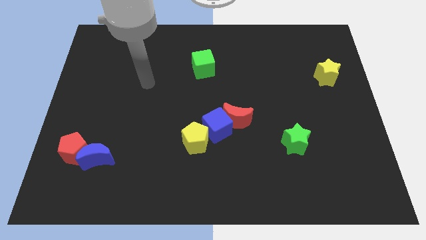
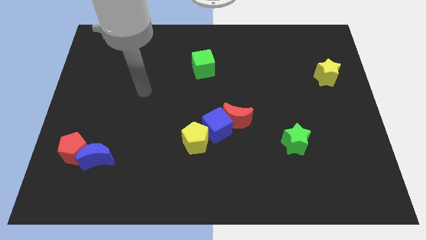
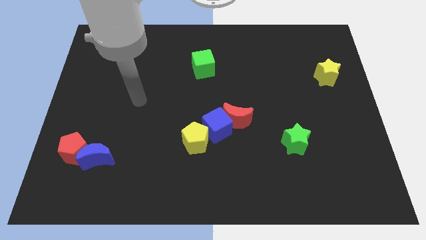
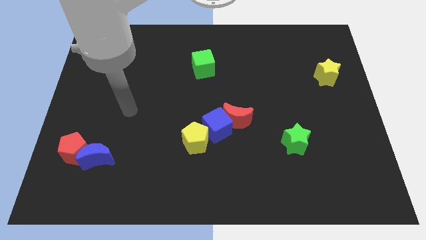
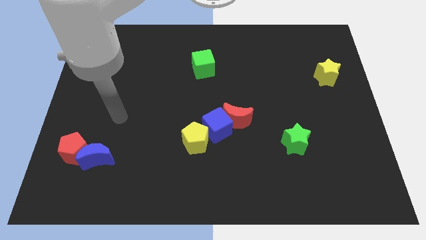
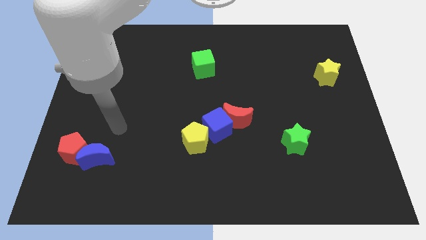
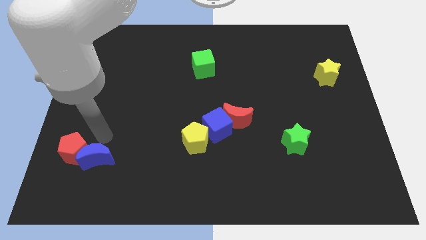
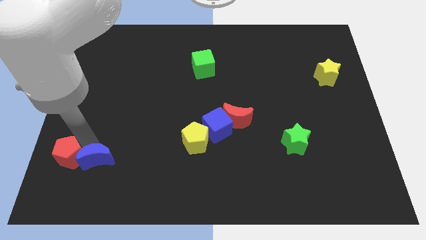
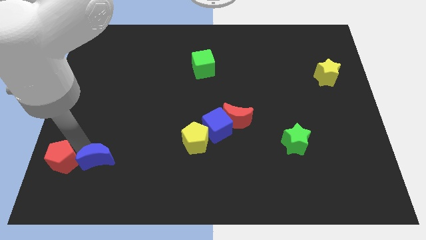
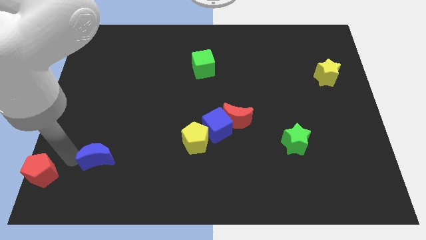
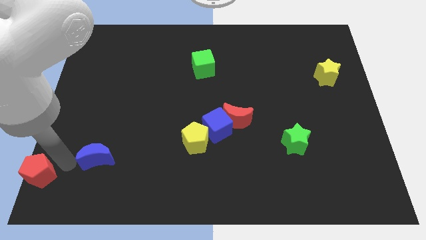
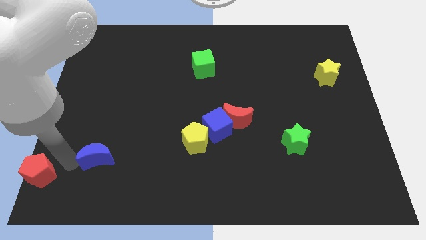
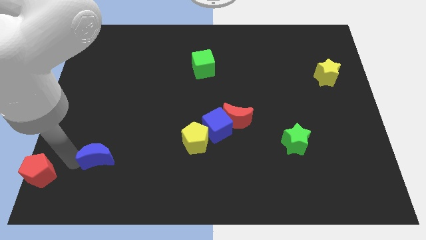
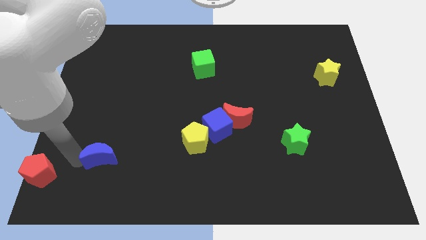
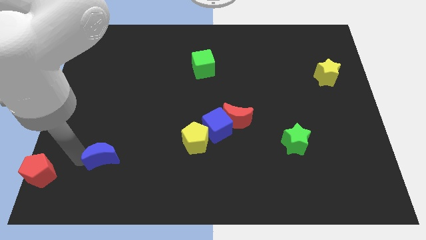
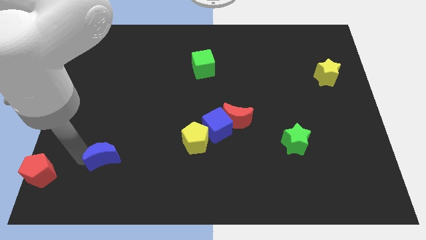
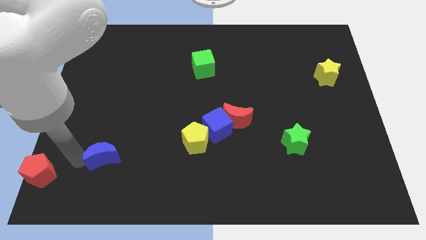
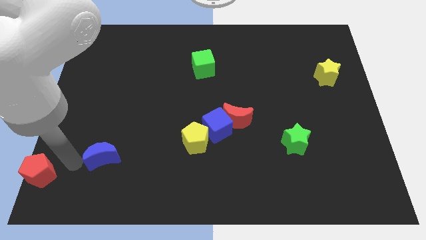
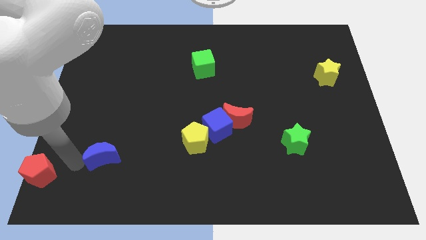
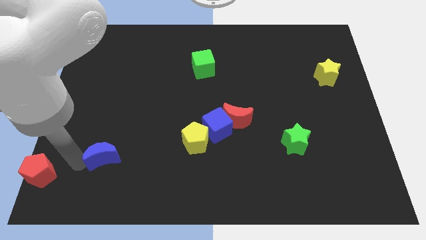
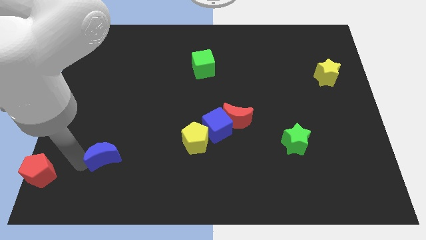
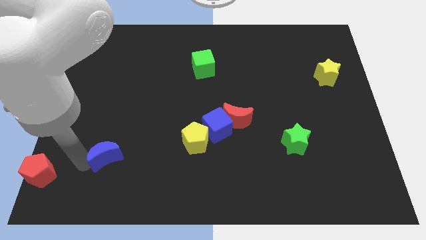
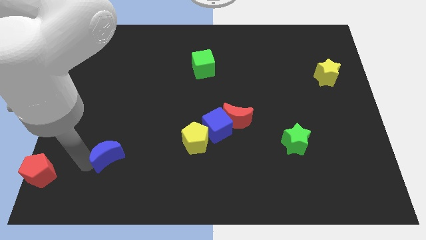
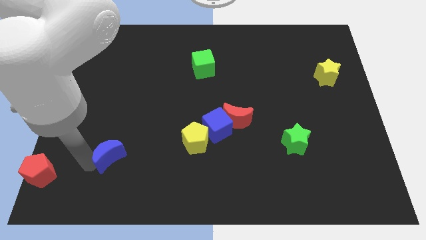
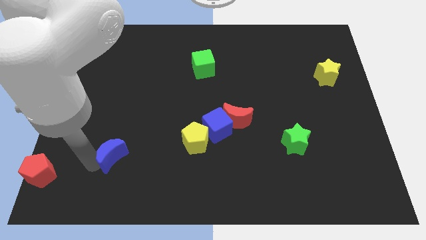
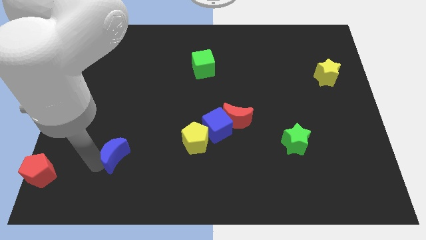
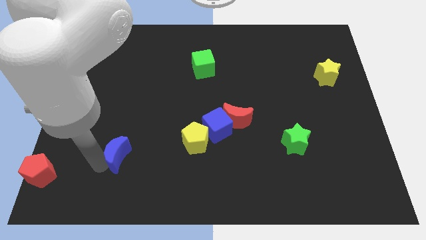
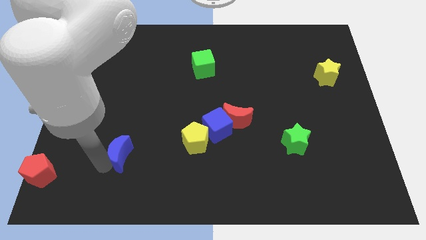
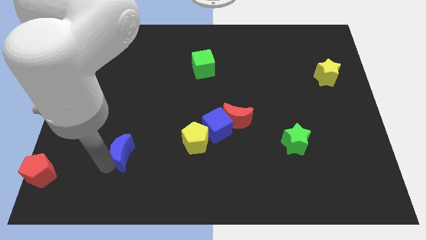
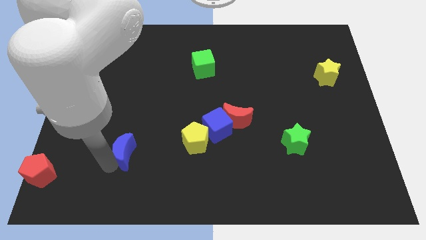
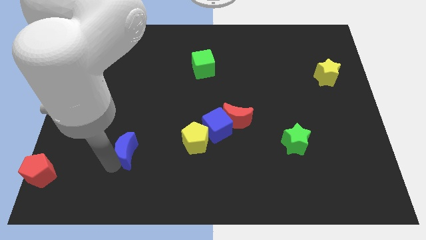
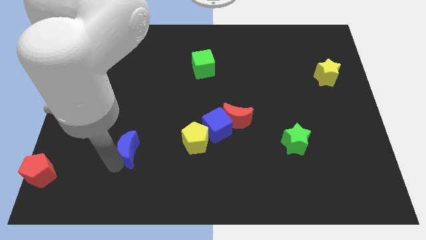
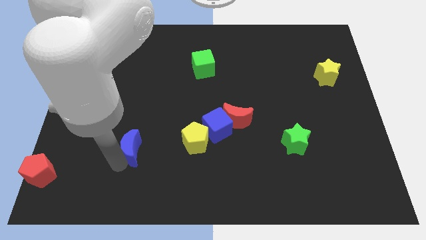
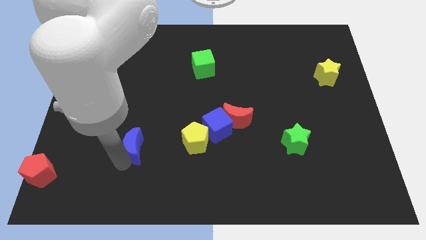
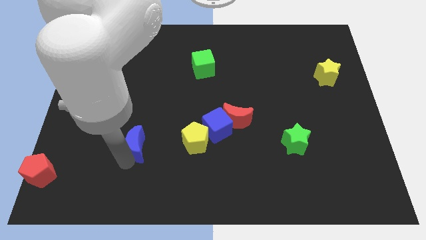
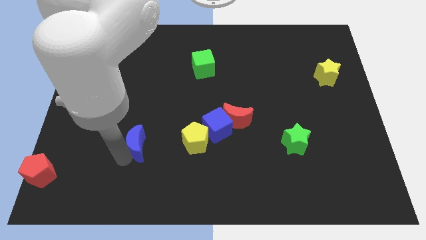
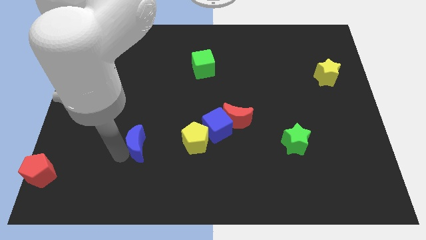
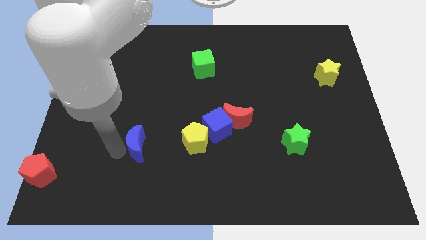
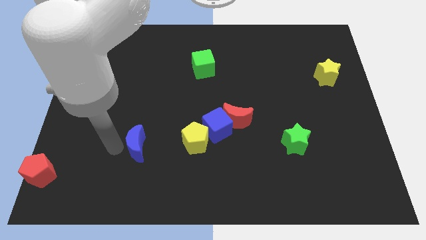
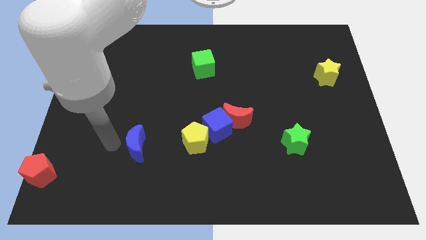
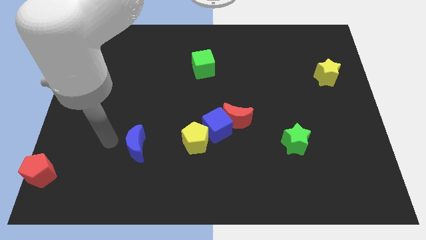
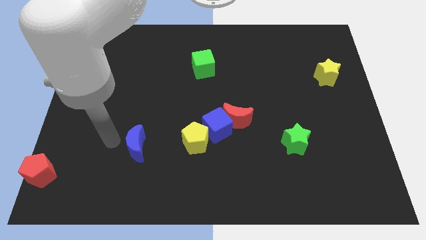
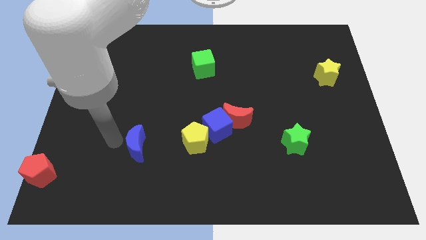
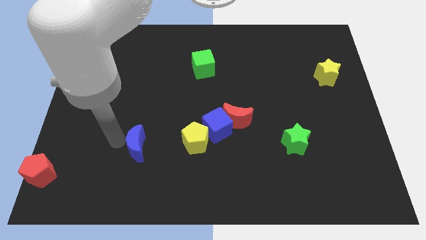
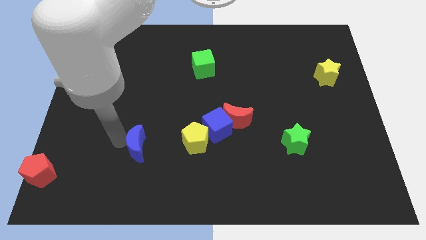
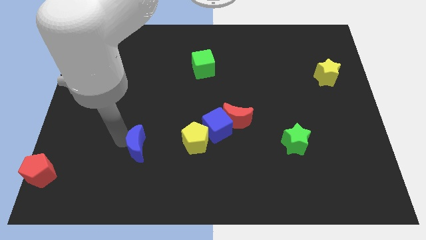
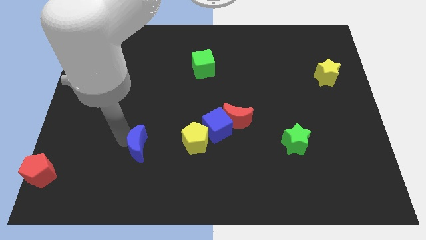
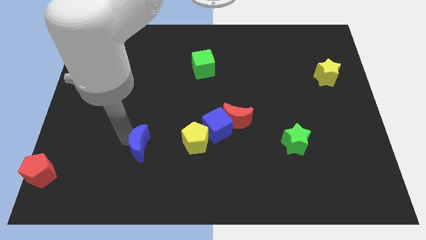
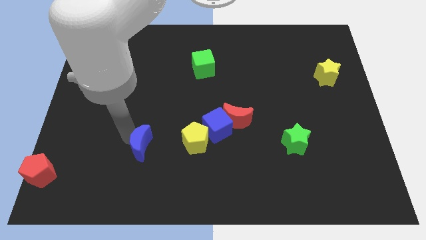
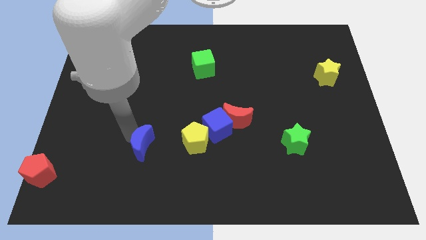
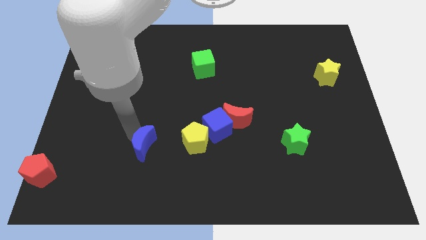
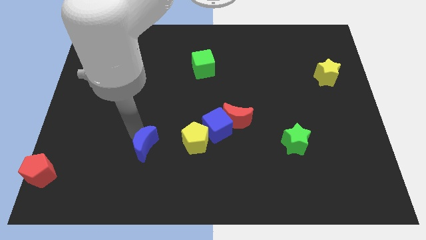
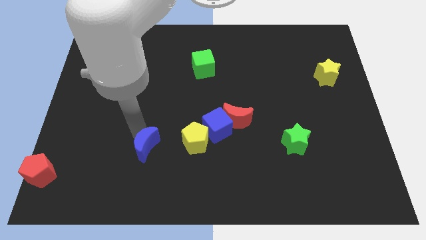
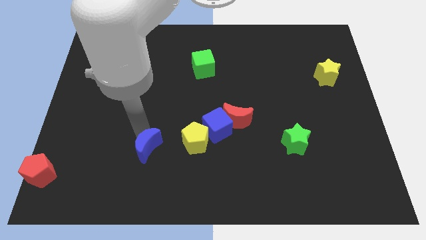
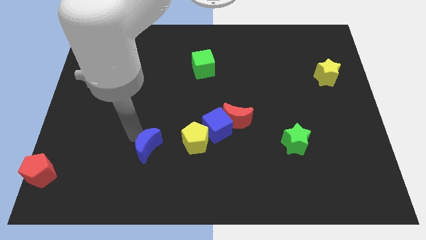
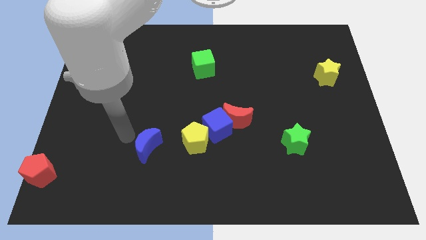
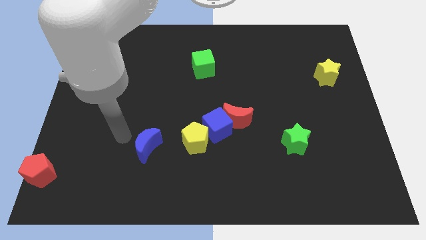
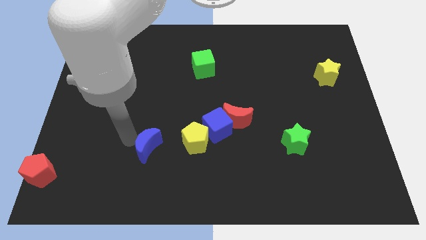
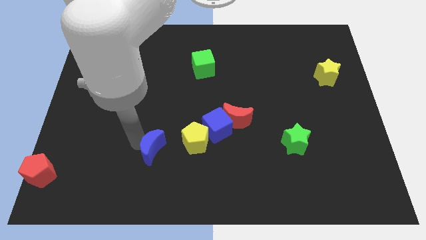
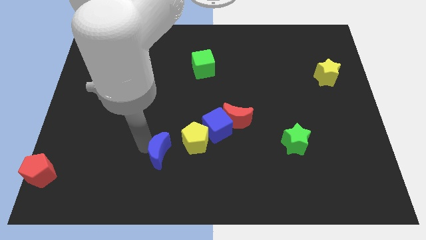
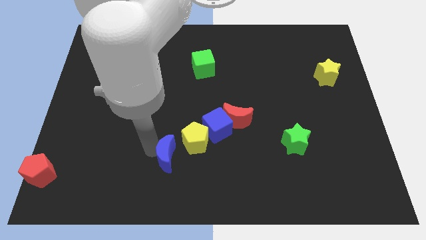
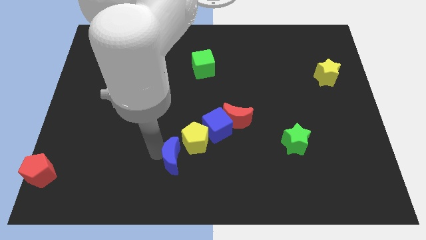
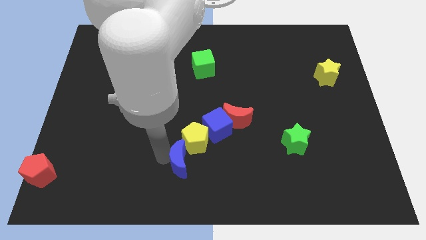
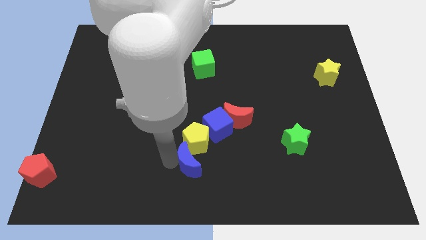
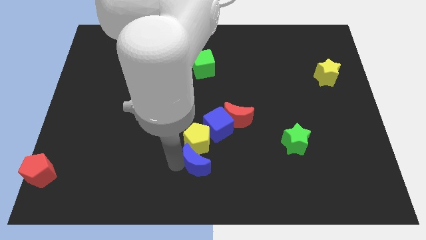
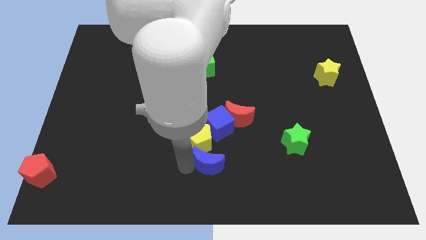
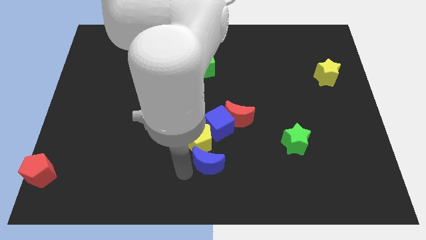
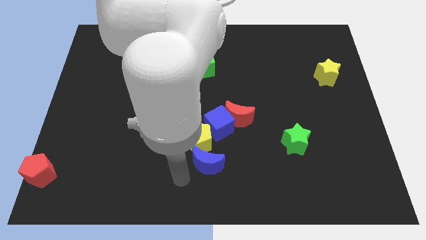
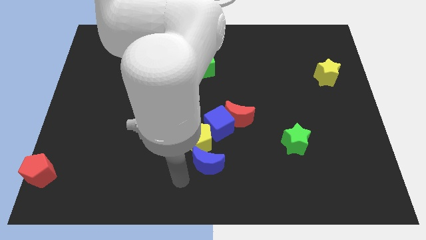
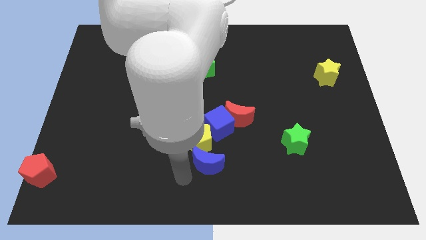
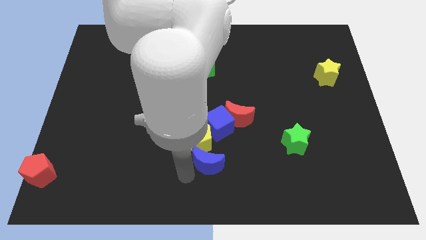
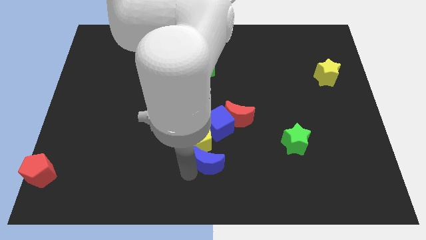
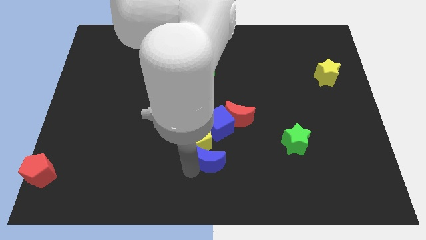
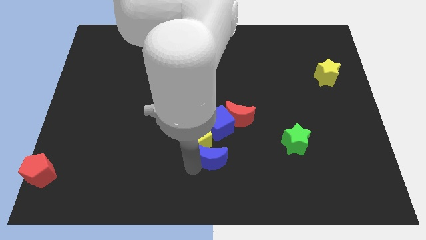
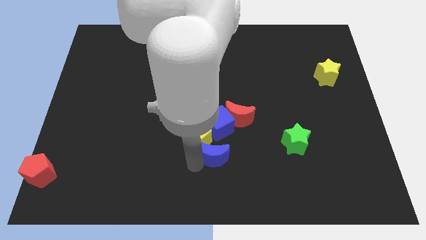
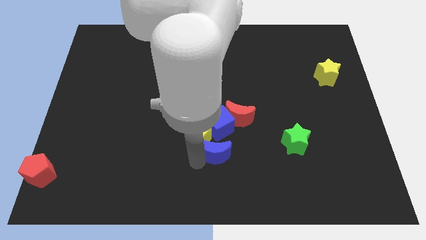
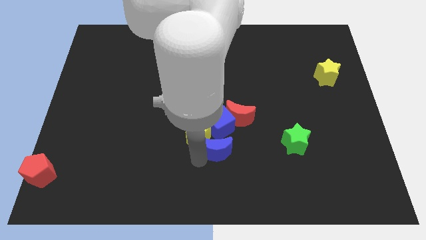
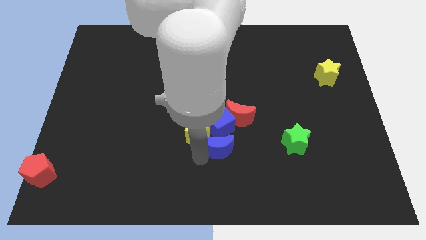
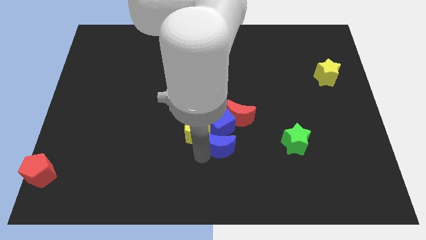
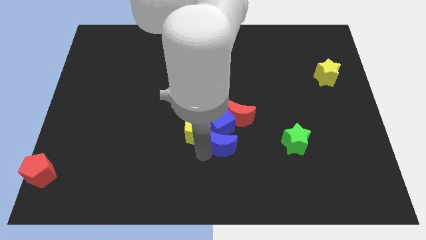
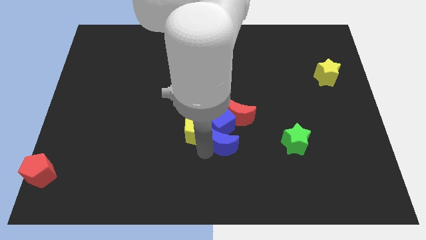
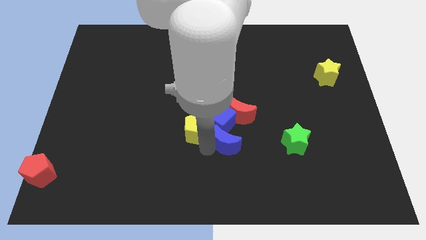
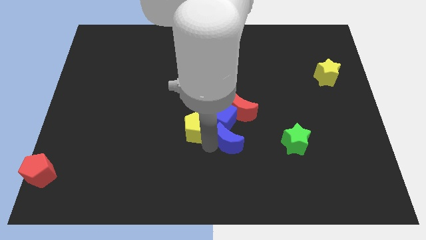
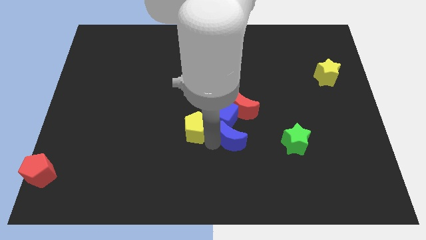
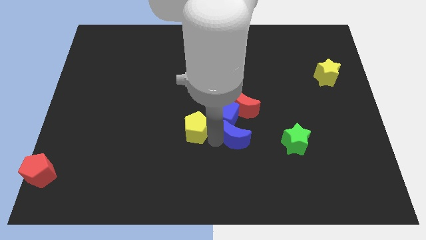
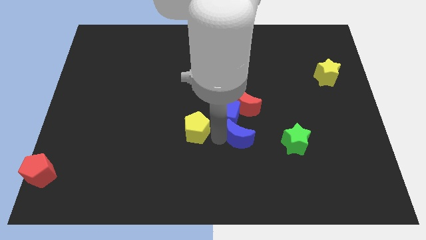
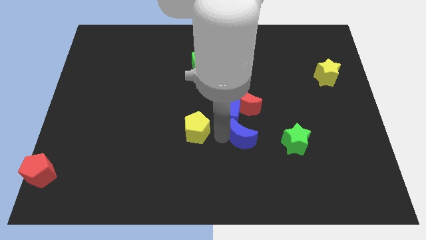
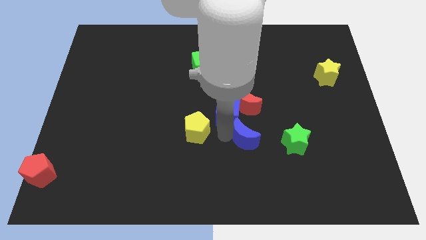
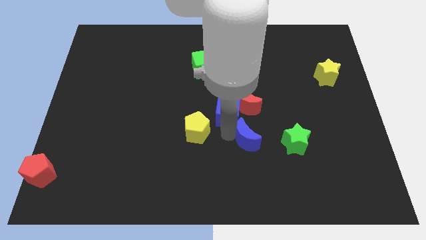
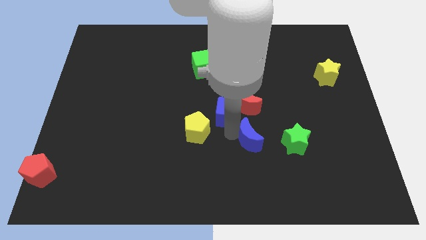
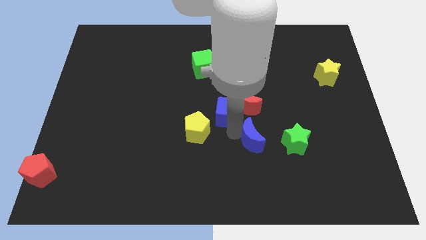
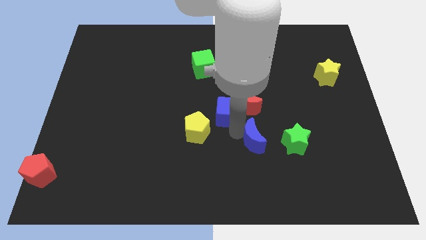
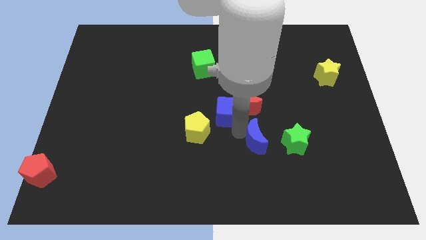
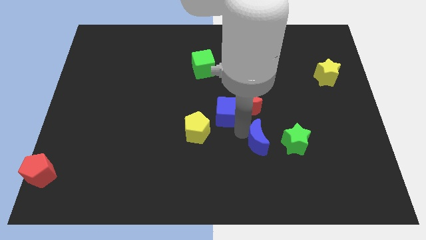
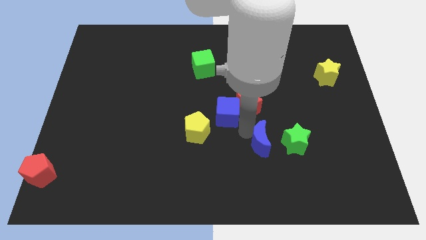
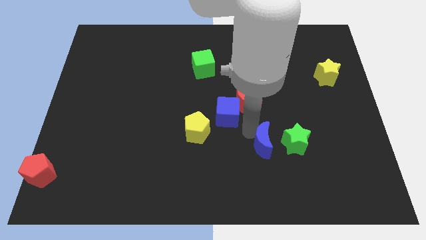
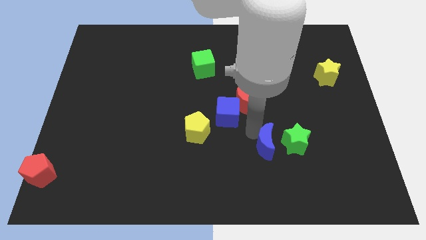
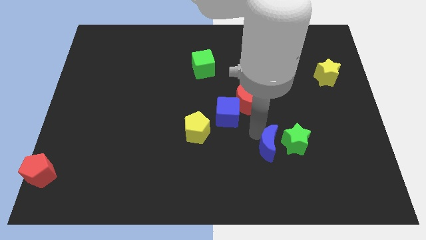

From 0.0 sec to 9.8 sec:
push the blue moon close to the green star
